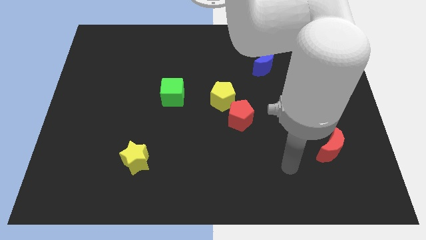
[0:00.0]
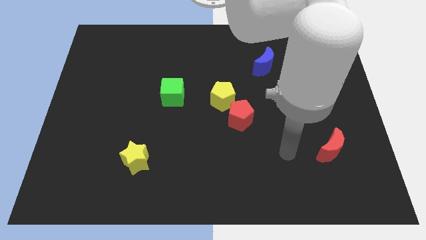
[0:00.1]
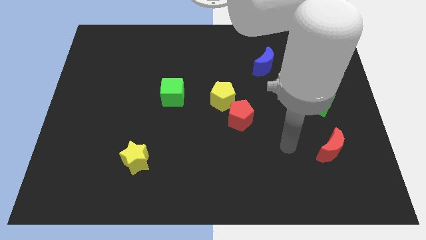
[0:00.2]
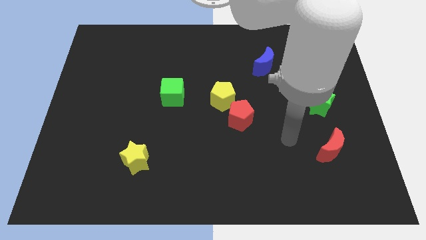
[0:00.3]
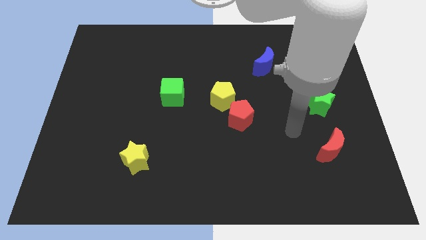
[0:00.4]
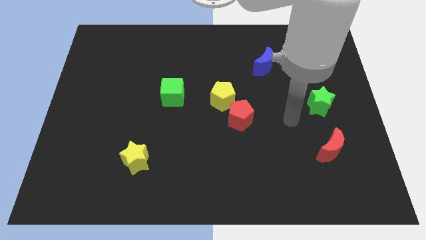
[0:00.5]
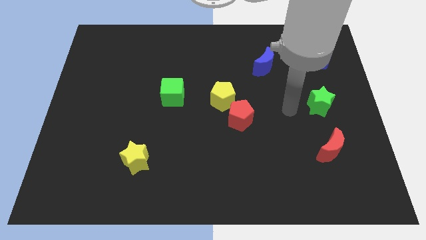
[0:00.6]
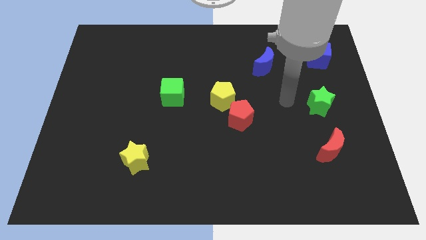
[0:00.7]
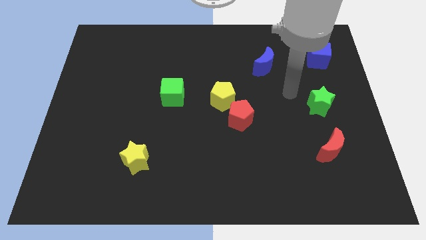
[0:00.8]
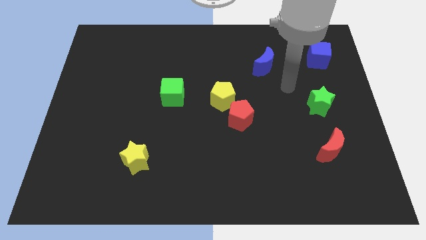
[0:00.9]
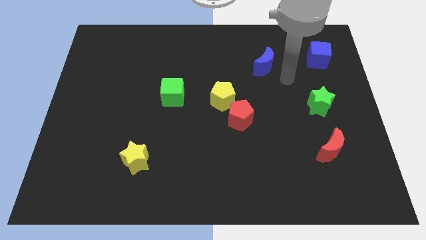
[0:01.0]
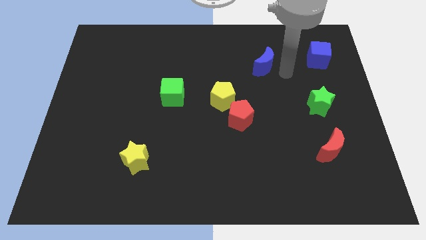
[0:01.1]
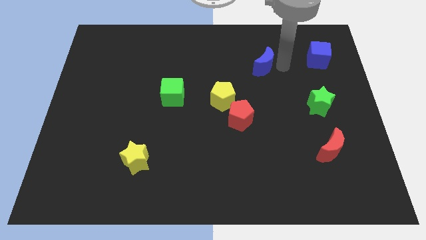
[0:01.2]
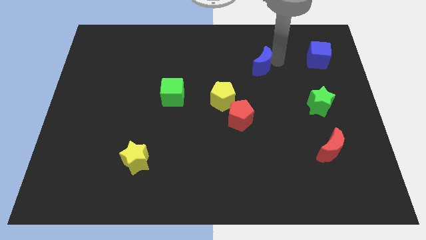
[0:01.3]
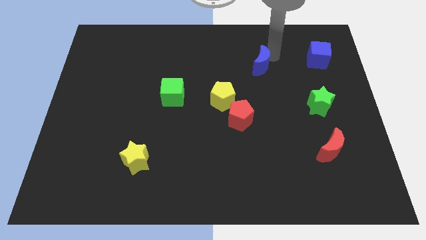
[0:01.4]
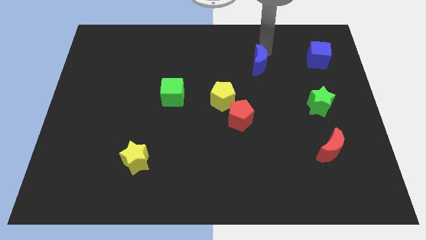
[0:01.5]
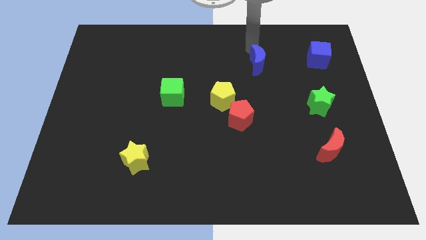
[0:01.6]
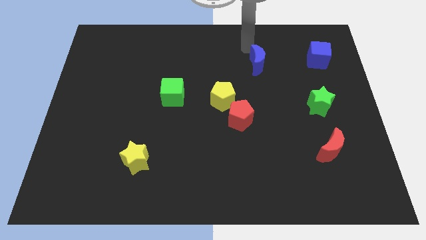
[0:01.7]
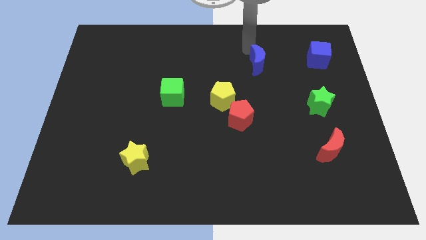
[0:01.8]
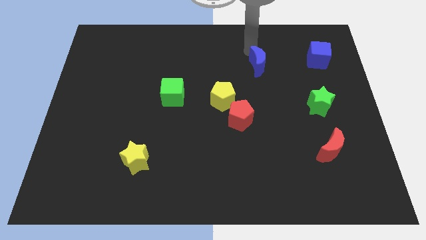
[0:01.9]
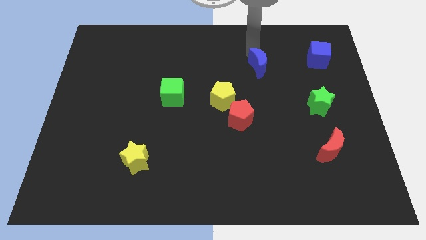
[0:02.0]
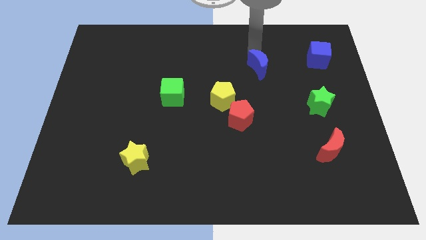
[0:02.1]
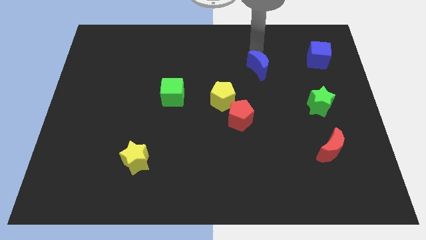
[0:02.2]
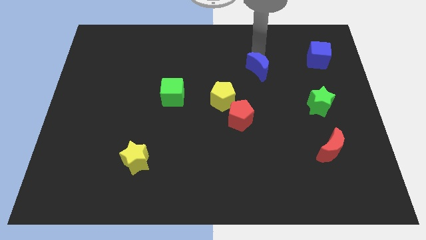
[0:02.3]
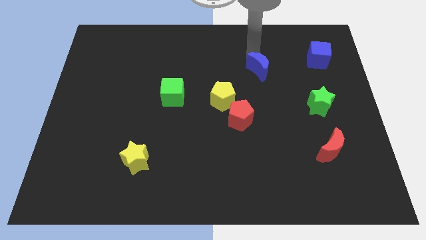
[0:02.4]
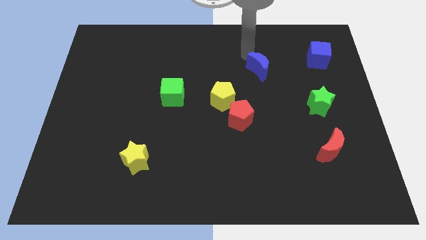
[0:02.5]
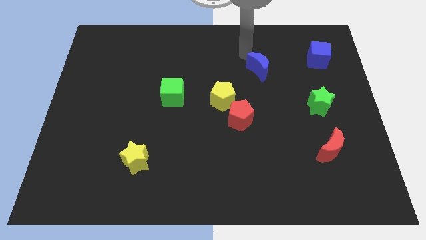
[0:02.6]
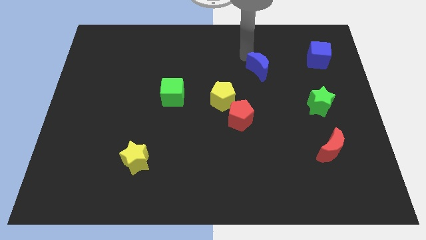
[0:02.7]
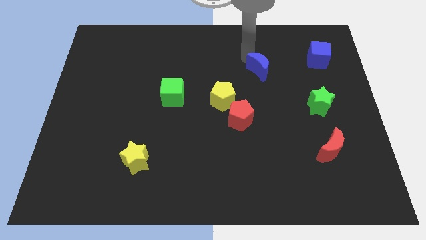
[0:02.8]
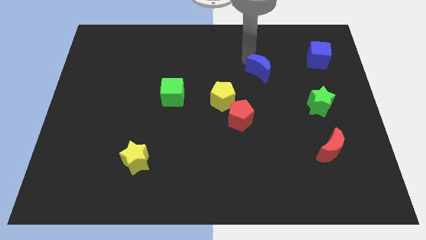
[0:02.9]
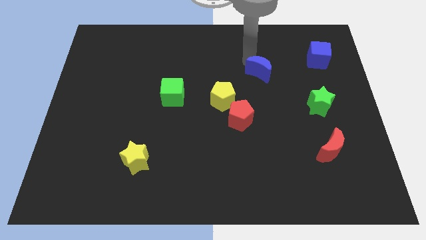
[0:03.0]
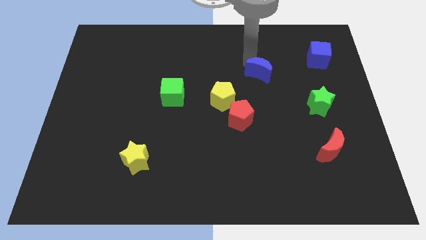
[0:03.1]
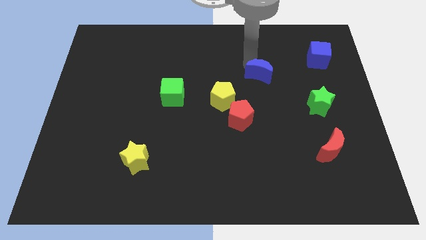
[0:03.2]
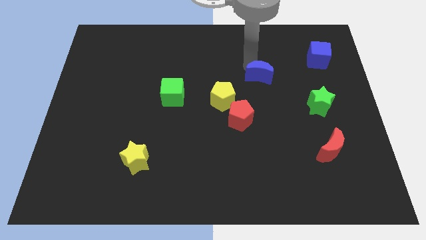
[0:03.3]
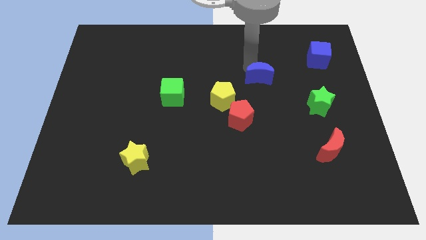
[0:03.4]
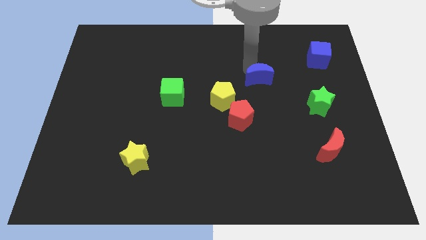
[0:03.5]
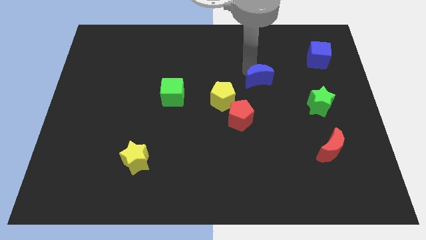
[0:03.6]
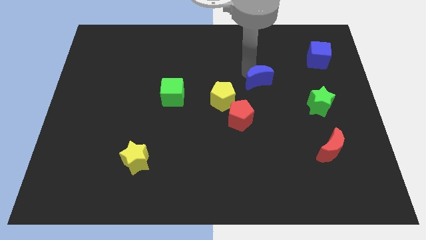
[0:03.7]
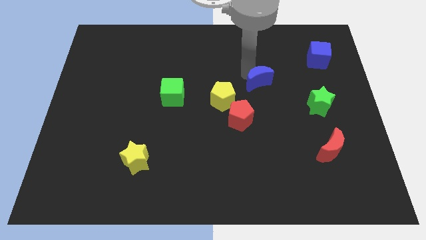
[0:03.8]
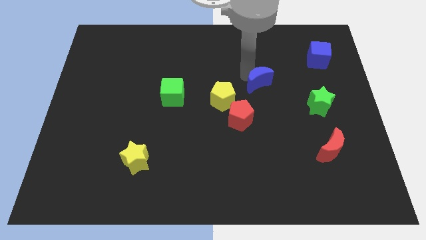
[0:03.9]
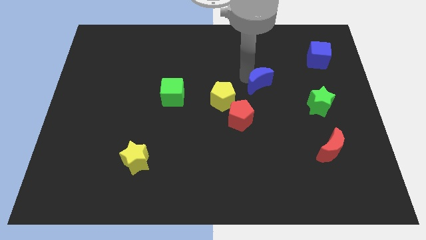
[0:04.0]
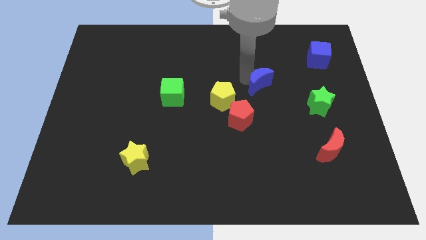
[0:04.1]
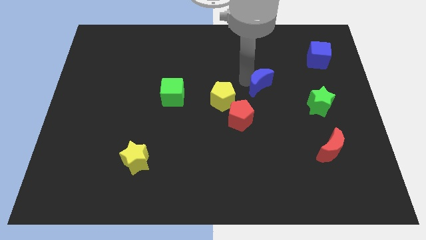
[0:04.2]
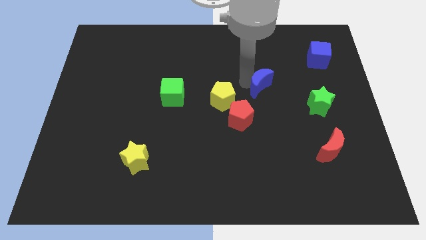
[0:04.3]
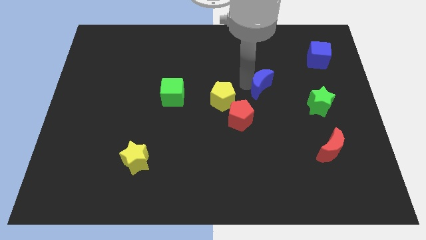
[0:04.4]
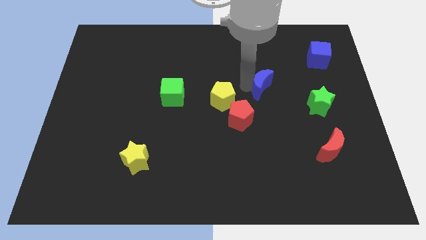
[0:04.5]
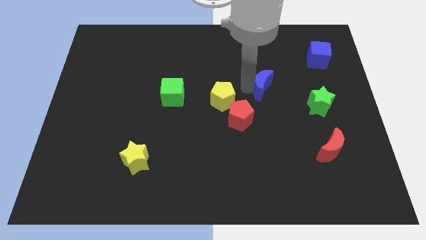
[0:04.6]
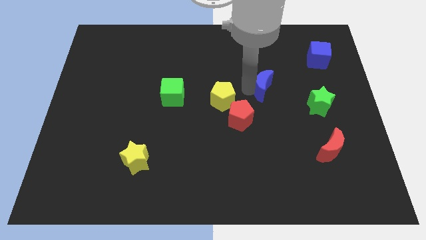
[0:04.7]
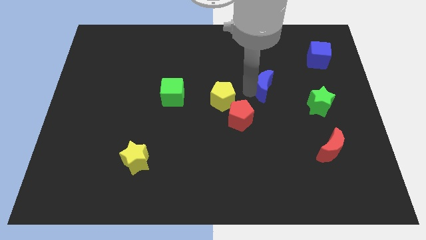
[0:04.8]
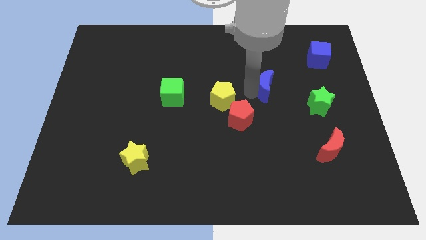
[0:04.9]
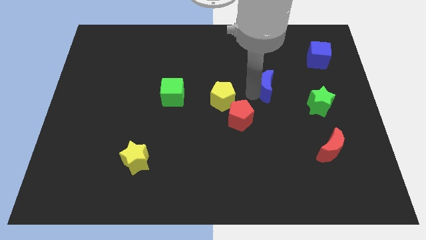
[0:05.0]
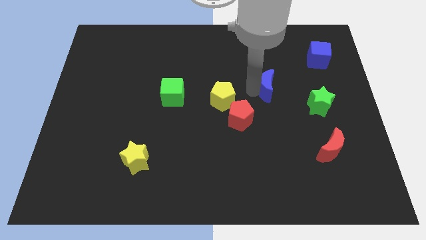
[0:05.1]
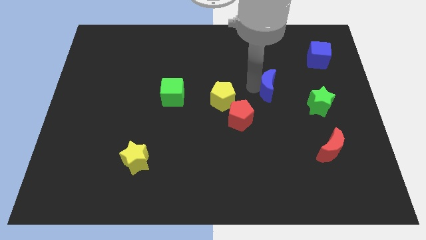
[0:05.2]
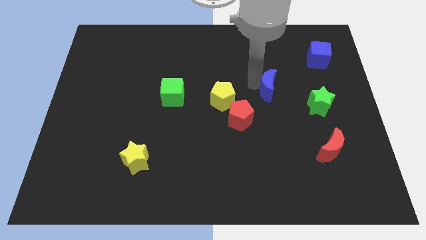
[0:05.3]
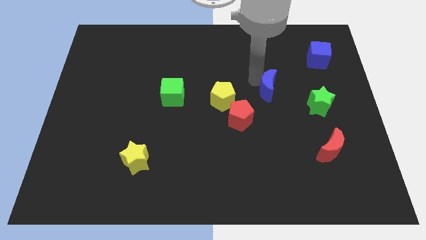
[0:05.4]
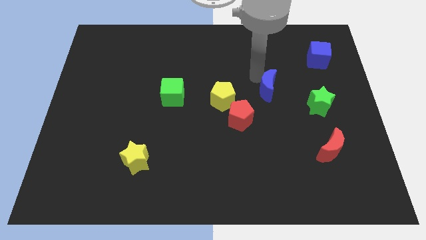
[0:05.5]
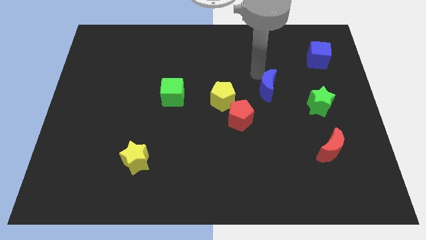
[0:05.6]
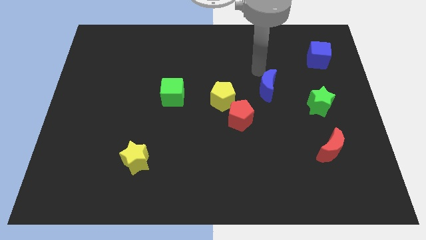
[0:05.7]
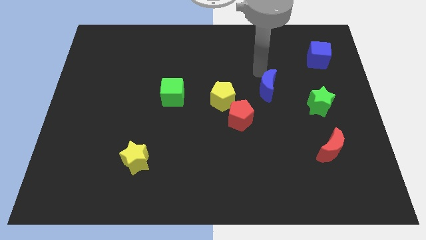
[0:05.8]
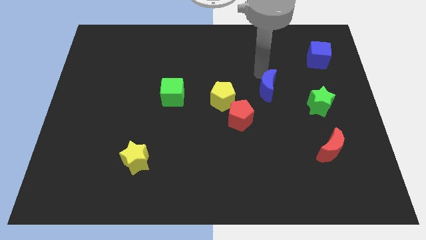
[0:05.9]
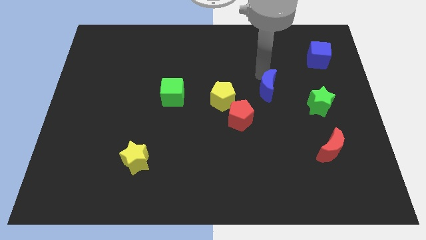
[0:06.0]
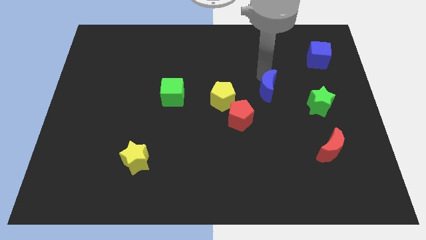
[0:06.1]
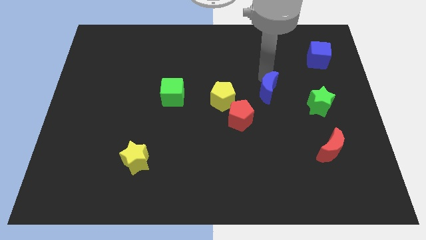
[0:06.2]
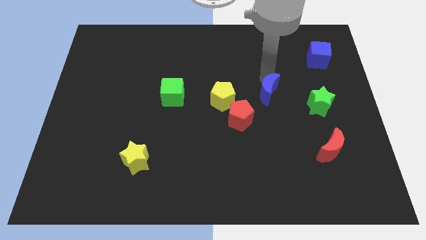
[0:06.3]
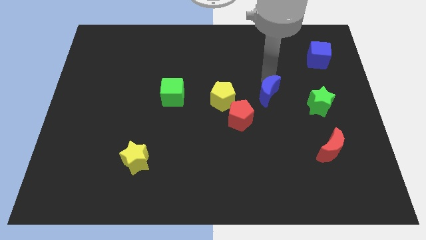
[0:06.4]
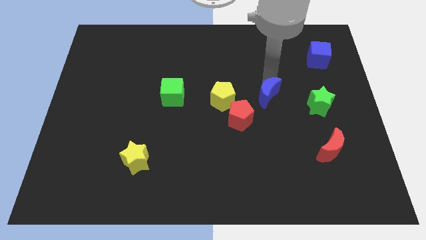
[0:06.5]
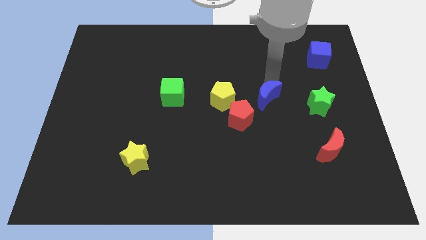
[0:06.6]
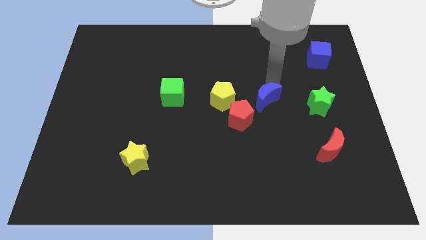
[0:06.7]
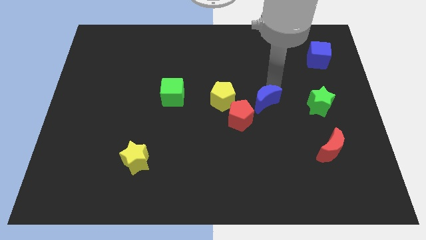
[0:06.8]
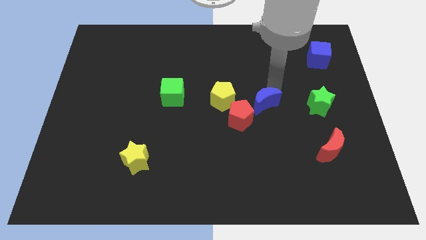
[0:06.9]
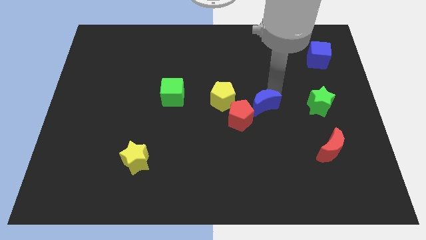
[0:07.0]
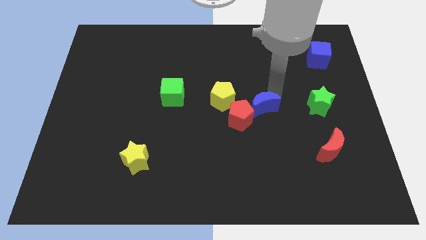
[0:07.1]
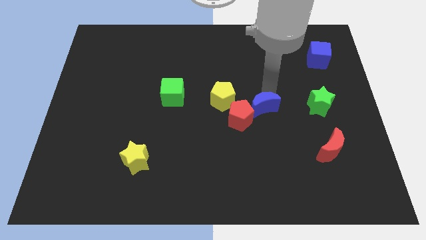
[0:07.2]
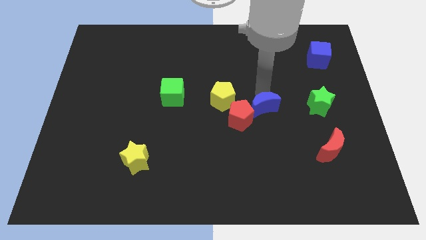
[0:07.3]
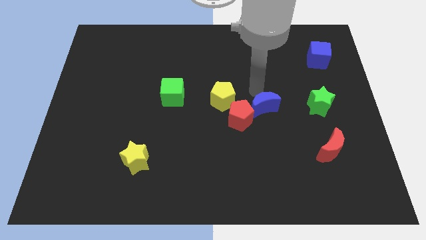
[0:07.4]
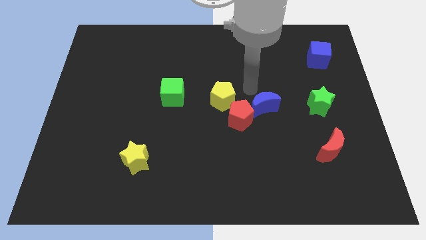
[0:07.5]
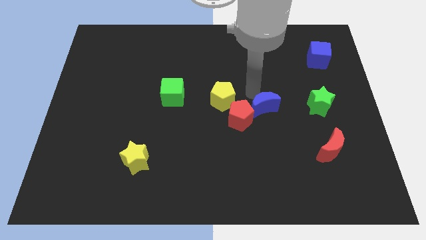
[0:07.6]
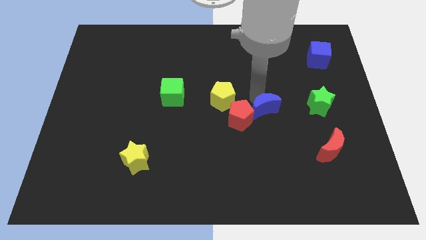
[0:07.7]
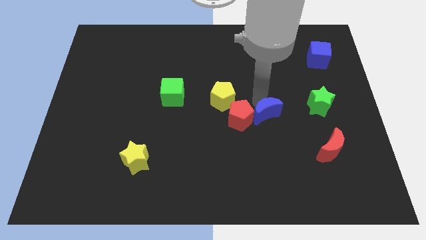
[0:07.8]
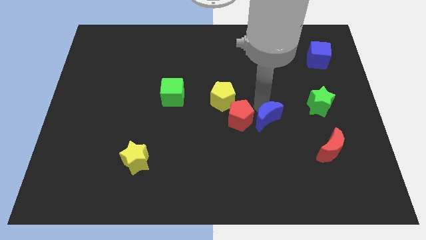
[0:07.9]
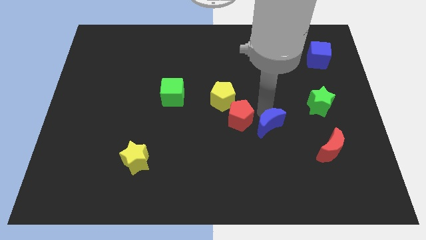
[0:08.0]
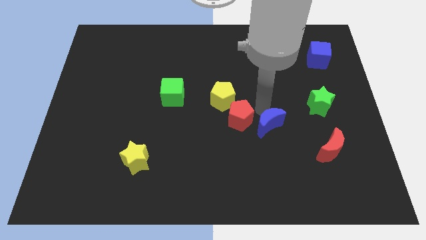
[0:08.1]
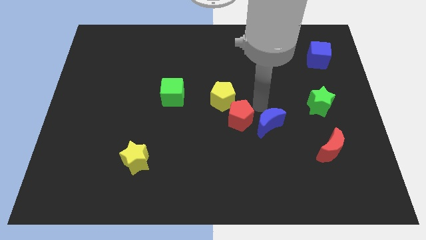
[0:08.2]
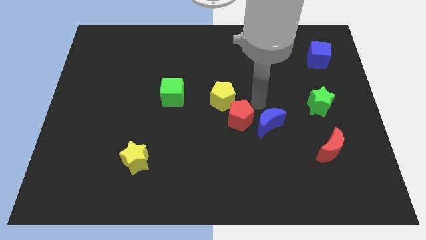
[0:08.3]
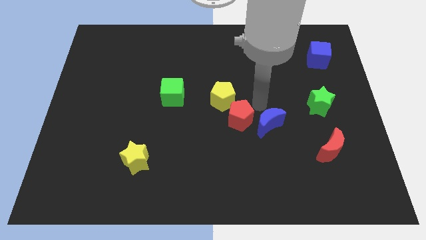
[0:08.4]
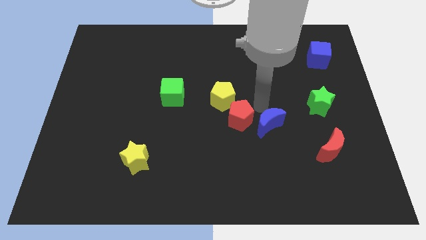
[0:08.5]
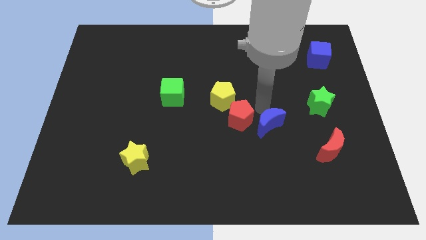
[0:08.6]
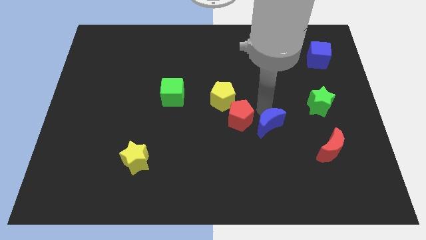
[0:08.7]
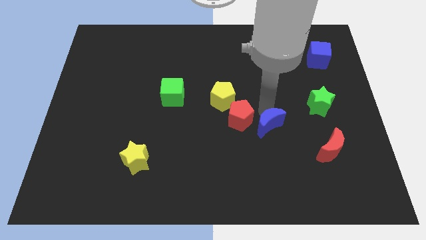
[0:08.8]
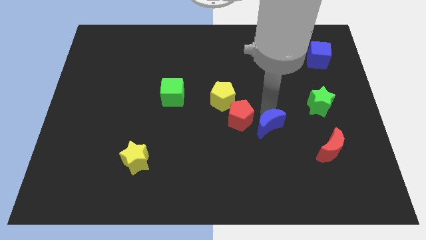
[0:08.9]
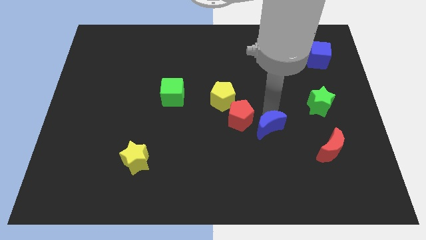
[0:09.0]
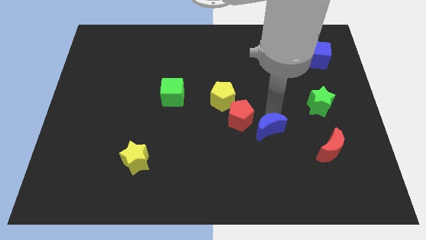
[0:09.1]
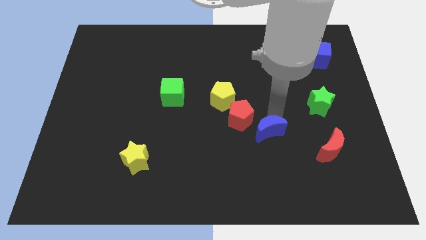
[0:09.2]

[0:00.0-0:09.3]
move the blue moon down
